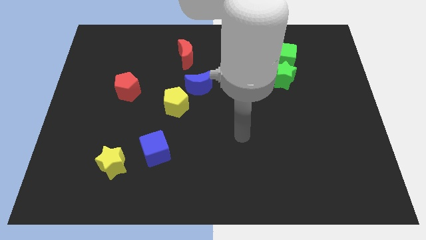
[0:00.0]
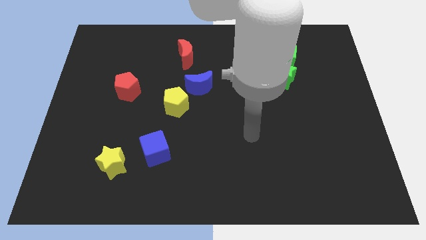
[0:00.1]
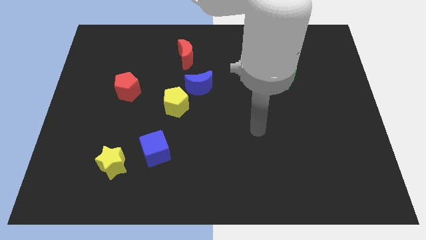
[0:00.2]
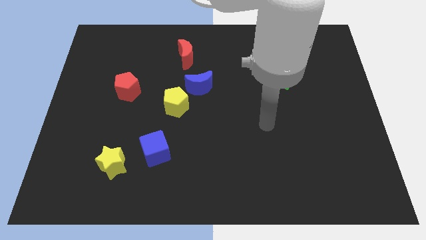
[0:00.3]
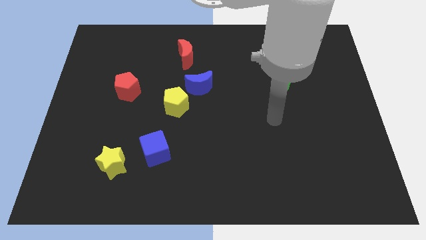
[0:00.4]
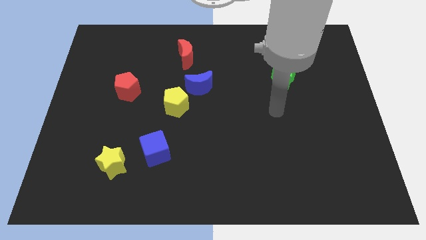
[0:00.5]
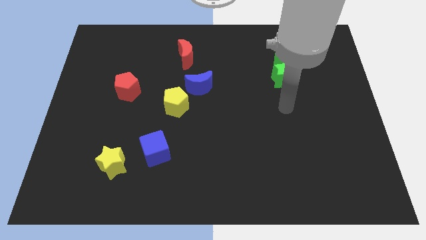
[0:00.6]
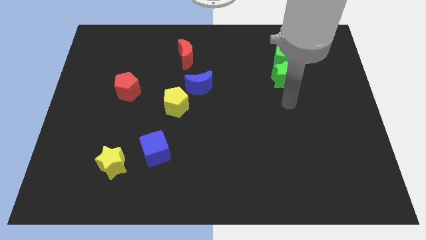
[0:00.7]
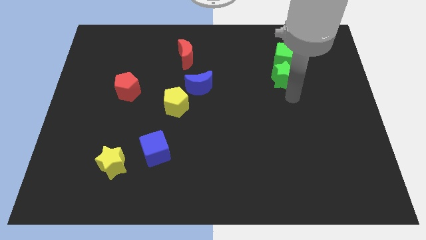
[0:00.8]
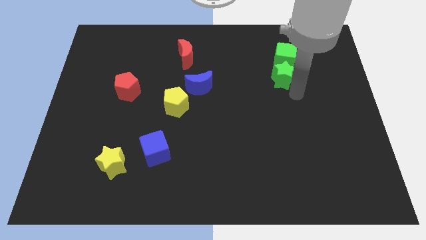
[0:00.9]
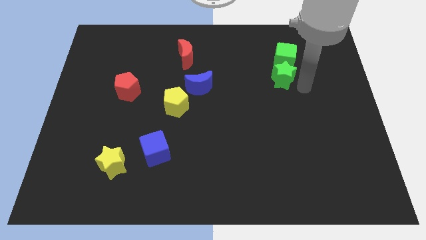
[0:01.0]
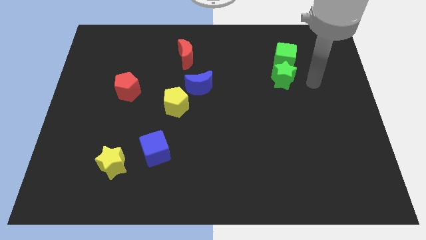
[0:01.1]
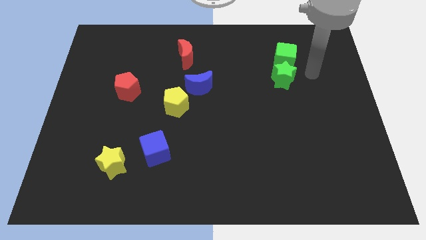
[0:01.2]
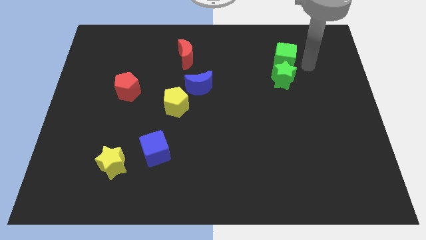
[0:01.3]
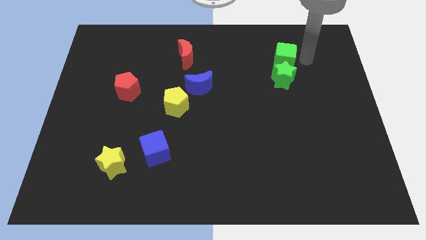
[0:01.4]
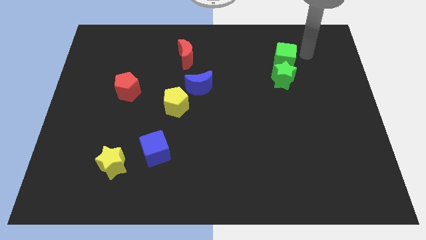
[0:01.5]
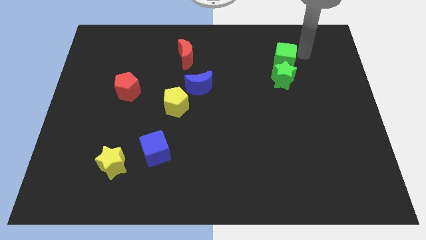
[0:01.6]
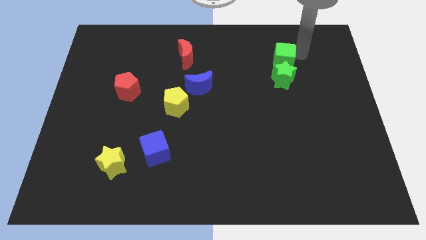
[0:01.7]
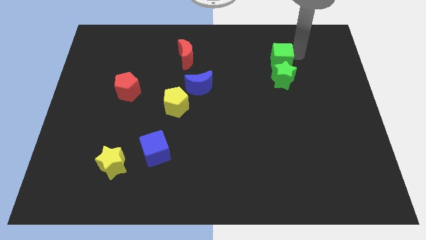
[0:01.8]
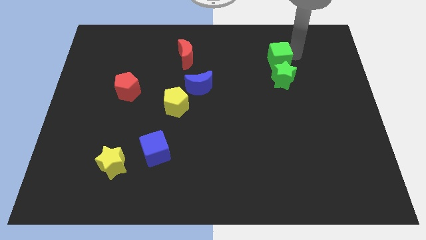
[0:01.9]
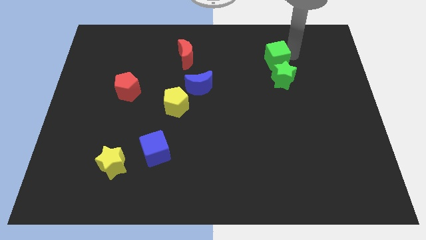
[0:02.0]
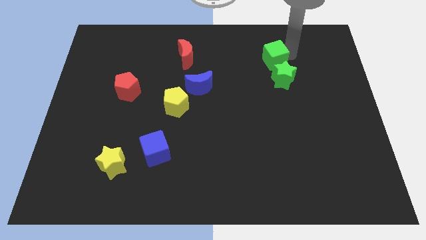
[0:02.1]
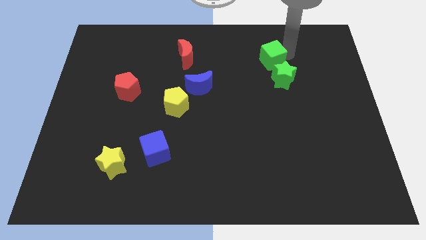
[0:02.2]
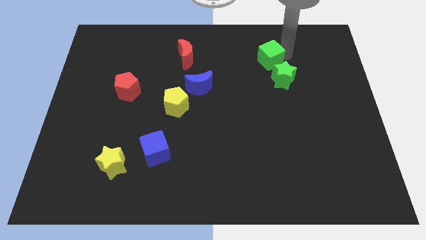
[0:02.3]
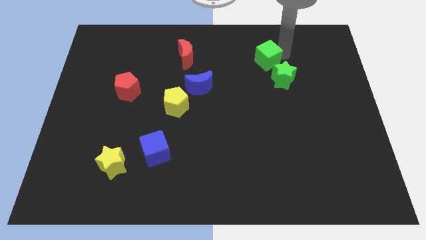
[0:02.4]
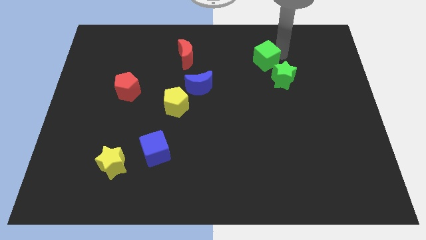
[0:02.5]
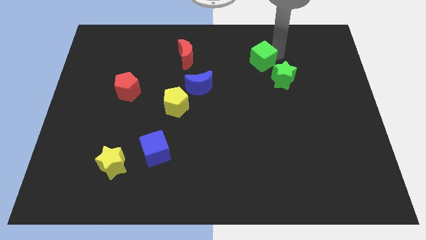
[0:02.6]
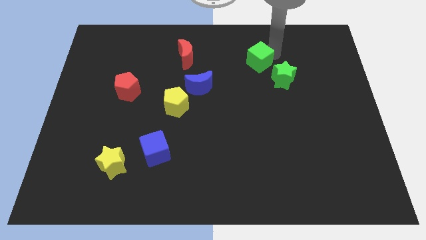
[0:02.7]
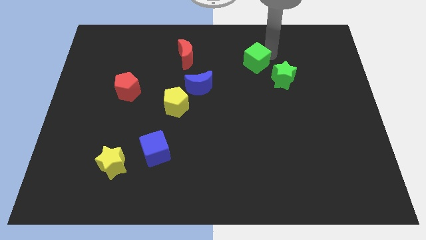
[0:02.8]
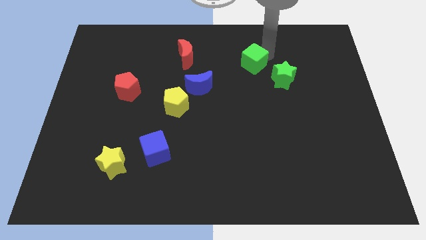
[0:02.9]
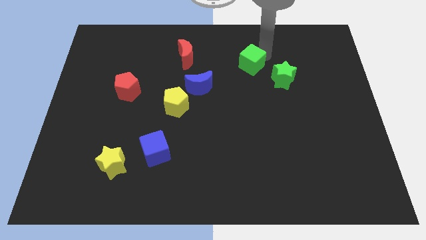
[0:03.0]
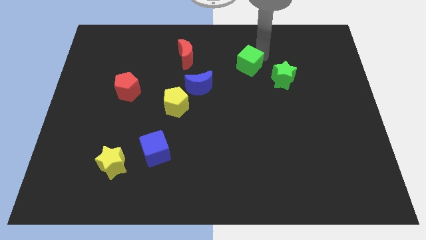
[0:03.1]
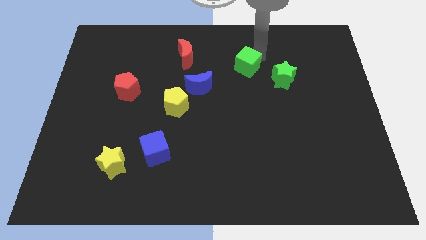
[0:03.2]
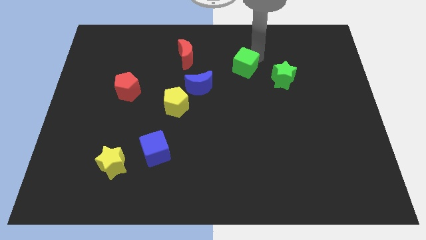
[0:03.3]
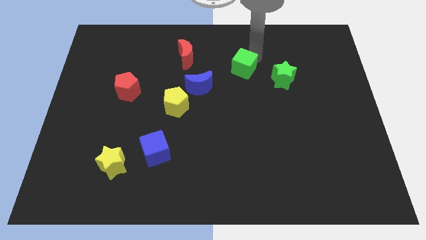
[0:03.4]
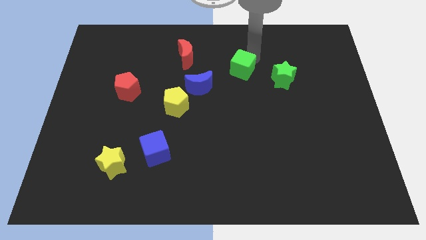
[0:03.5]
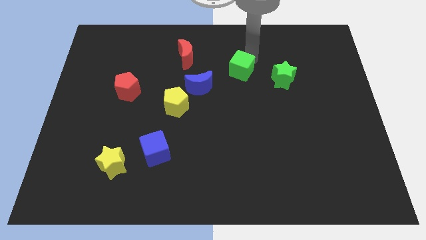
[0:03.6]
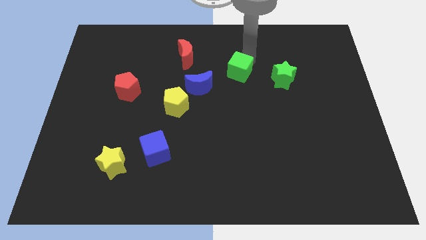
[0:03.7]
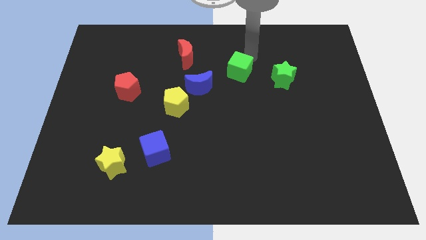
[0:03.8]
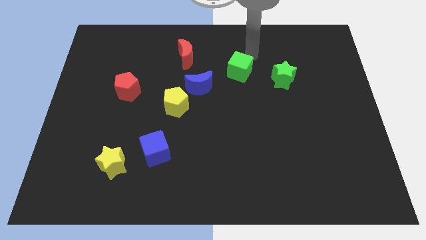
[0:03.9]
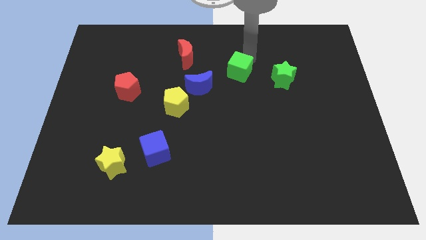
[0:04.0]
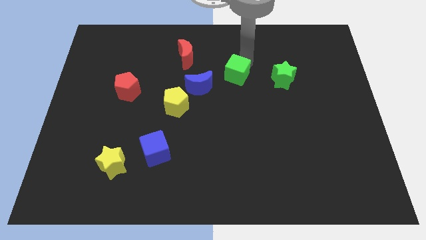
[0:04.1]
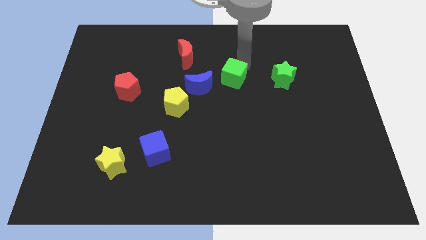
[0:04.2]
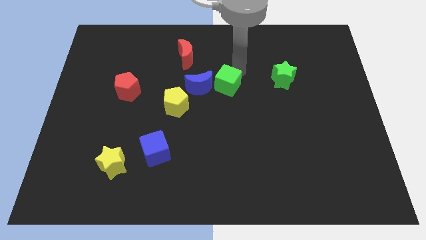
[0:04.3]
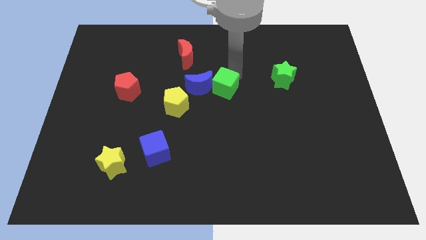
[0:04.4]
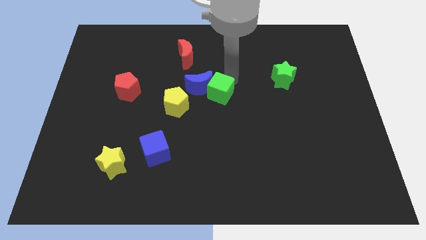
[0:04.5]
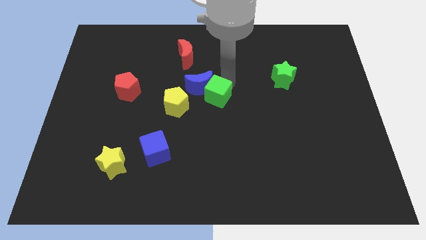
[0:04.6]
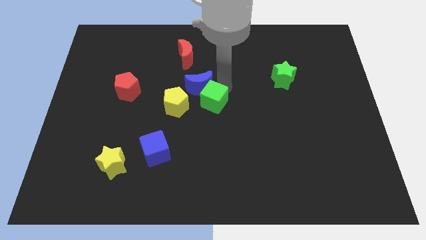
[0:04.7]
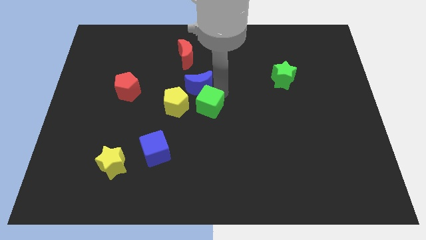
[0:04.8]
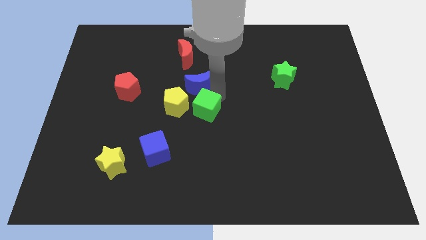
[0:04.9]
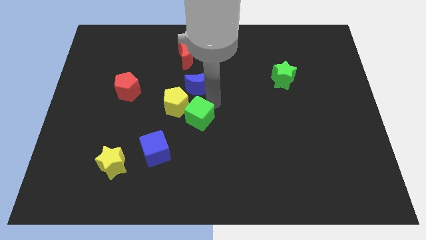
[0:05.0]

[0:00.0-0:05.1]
move the green cube to the top right of the blue cube

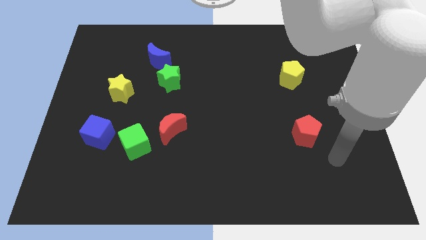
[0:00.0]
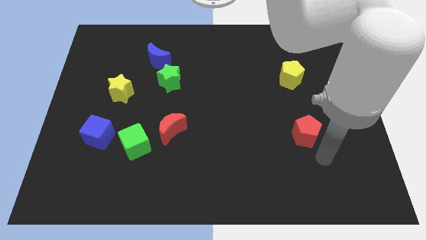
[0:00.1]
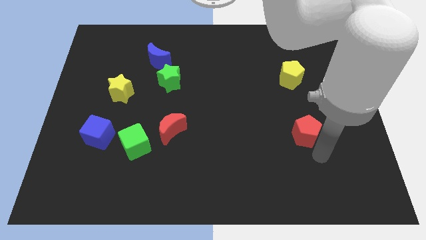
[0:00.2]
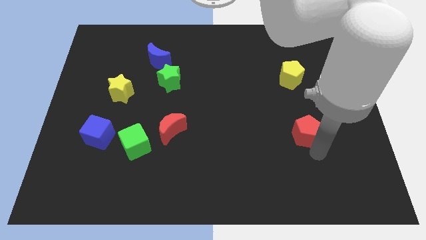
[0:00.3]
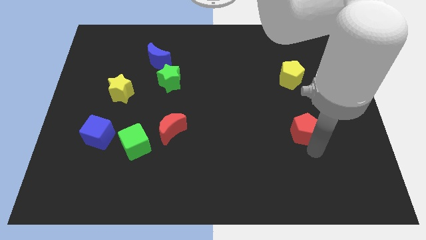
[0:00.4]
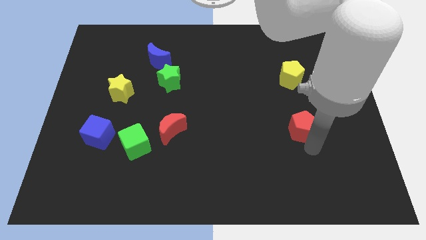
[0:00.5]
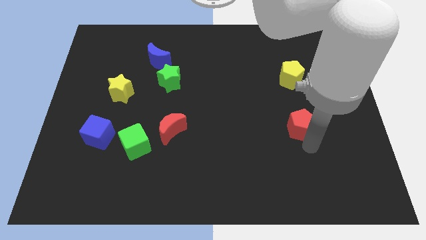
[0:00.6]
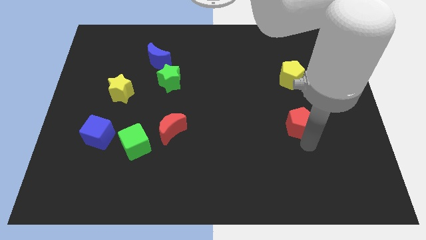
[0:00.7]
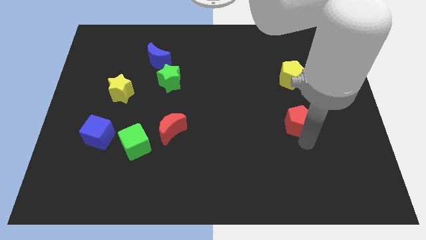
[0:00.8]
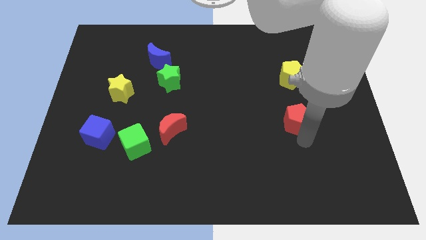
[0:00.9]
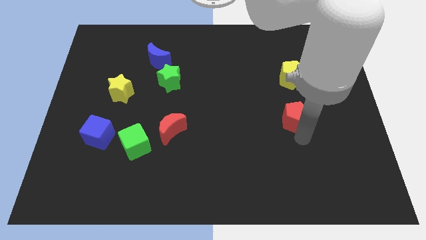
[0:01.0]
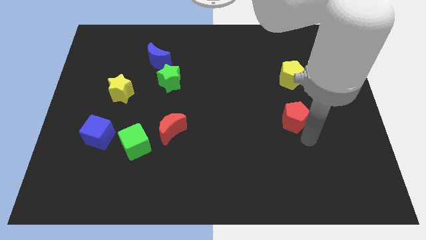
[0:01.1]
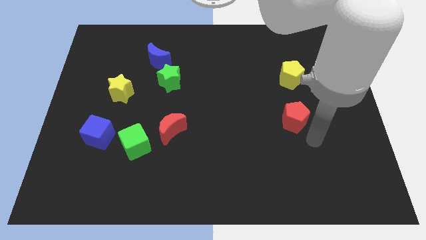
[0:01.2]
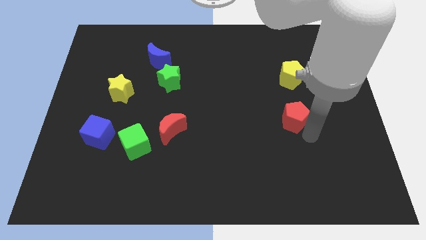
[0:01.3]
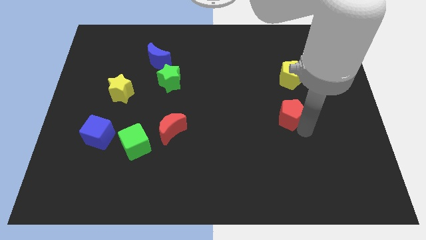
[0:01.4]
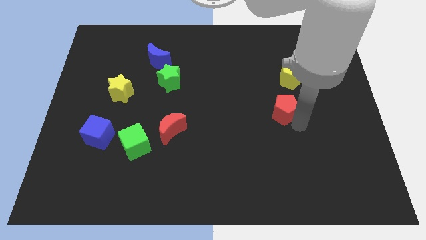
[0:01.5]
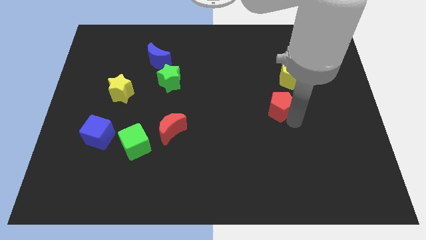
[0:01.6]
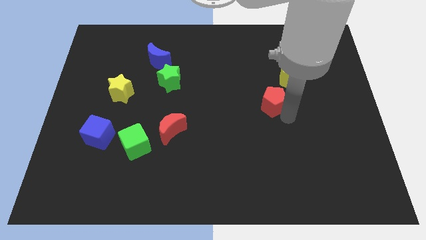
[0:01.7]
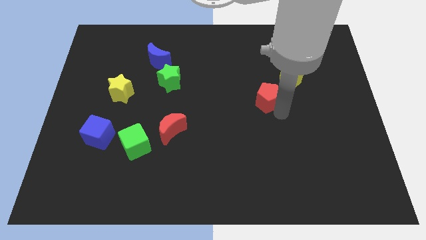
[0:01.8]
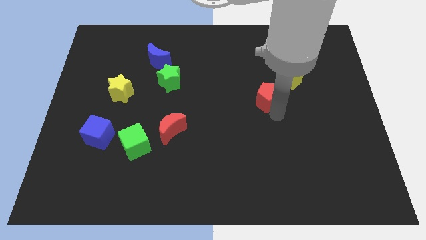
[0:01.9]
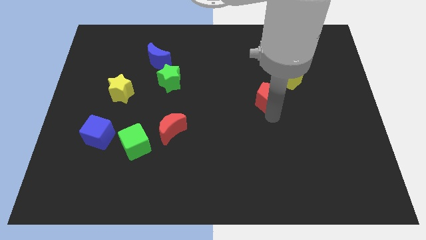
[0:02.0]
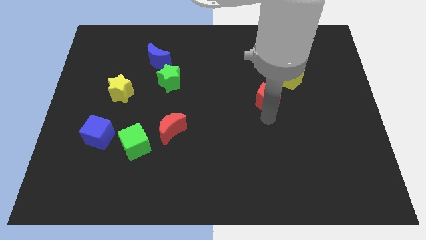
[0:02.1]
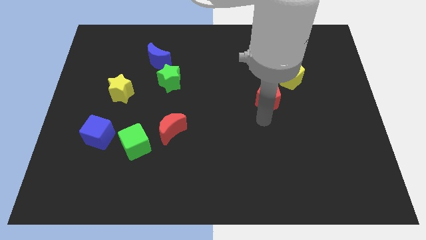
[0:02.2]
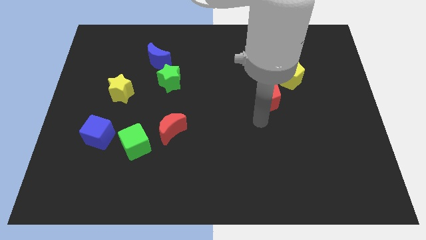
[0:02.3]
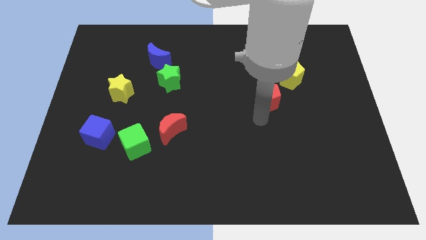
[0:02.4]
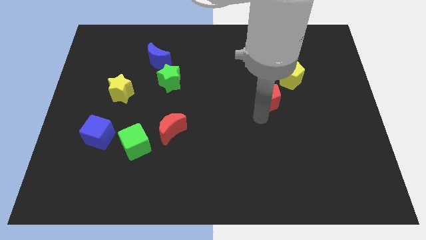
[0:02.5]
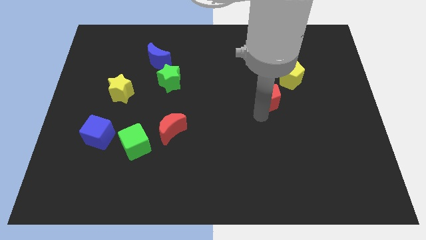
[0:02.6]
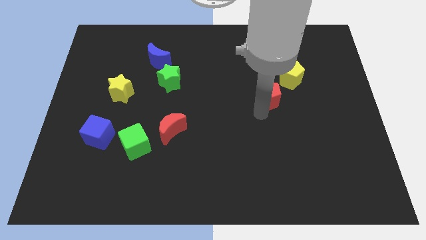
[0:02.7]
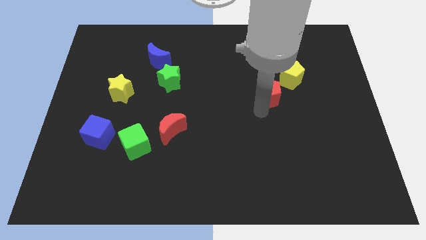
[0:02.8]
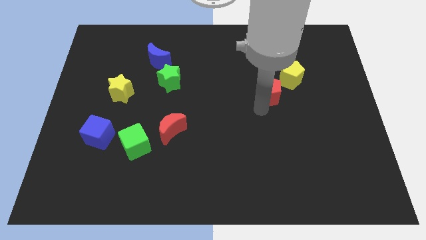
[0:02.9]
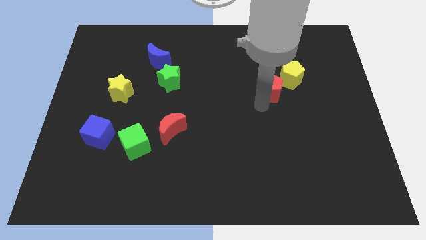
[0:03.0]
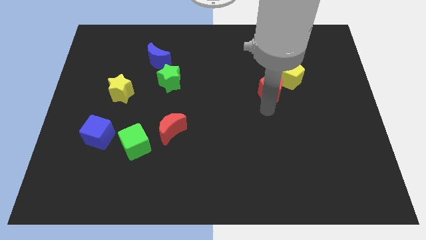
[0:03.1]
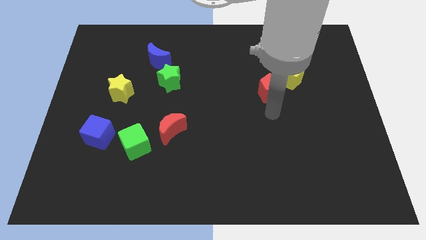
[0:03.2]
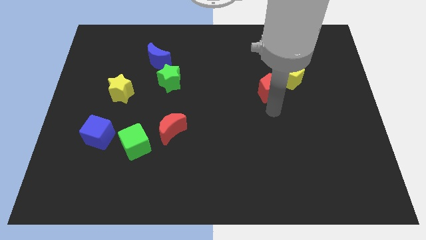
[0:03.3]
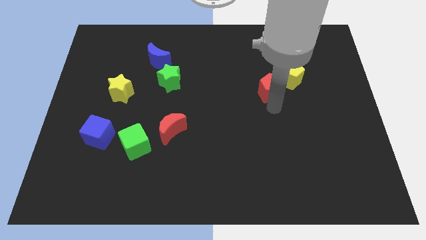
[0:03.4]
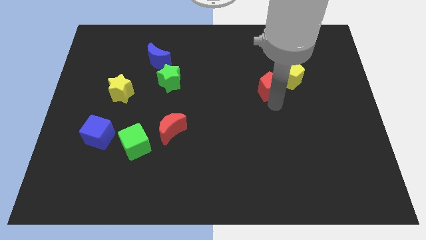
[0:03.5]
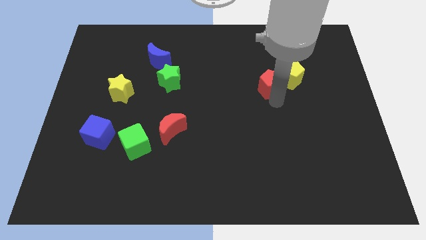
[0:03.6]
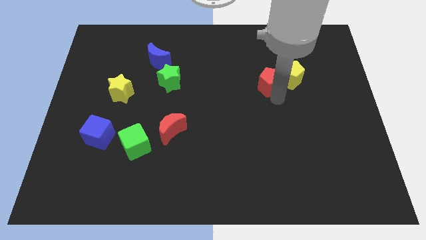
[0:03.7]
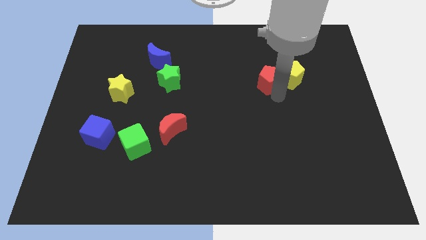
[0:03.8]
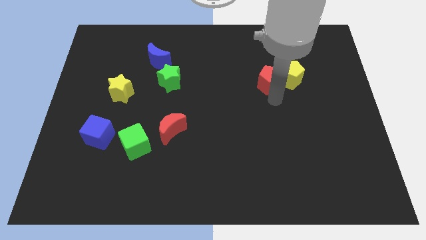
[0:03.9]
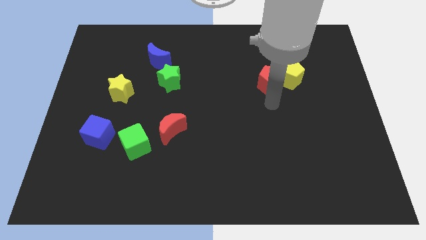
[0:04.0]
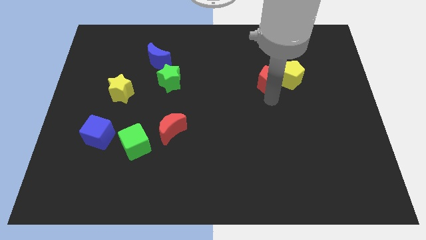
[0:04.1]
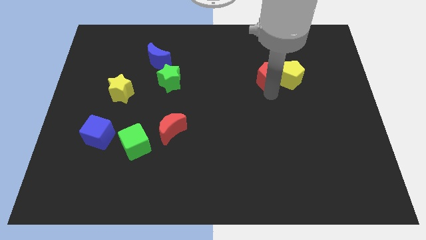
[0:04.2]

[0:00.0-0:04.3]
move the red pentagon to the top left of the yellow pentagon
